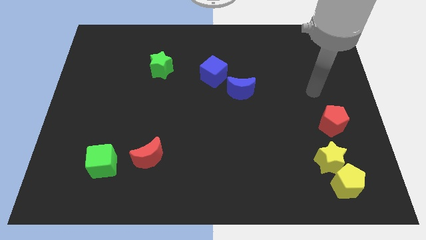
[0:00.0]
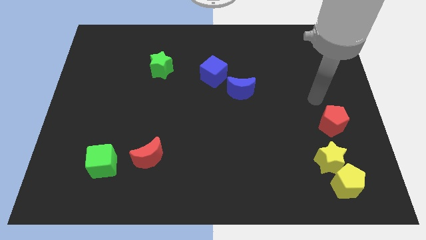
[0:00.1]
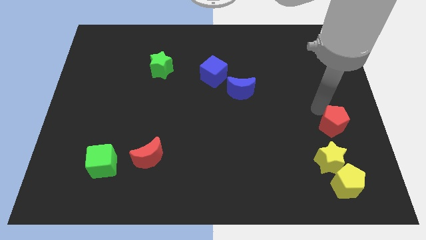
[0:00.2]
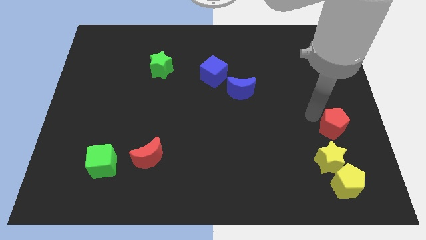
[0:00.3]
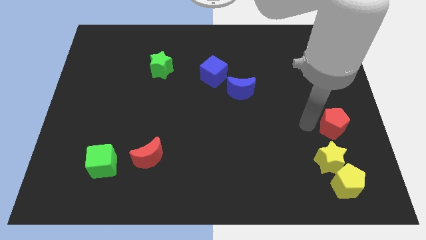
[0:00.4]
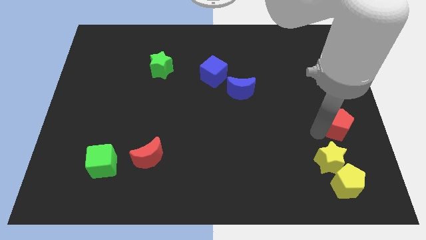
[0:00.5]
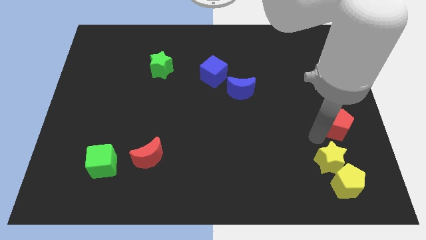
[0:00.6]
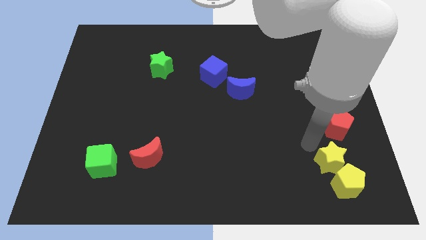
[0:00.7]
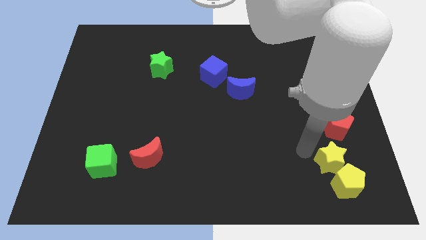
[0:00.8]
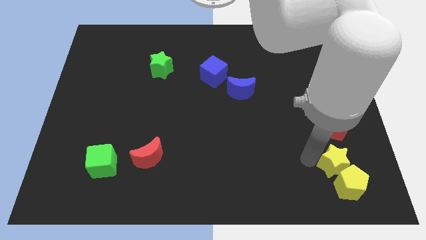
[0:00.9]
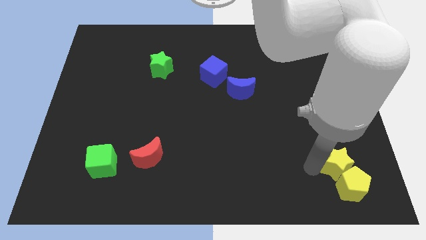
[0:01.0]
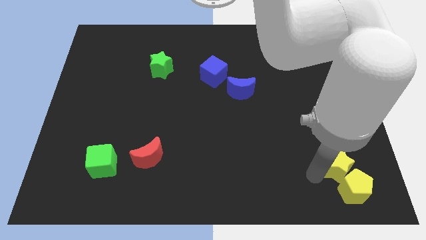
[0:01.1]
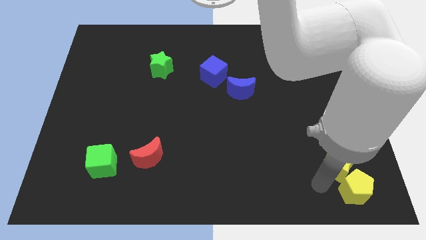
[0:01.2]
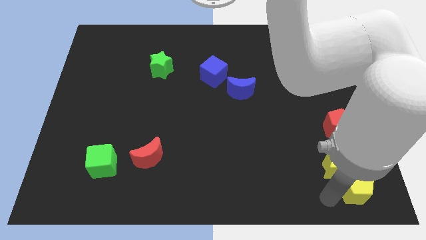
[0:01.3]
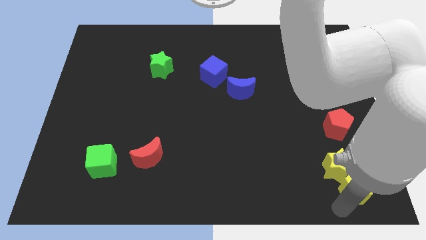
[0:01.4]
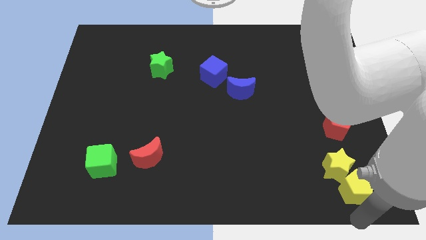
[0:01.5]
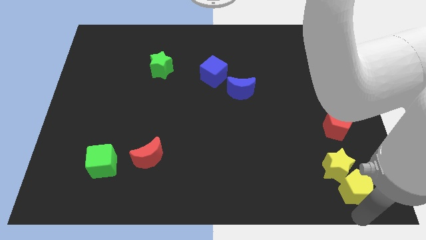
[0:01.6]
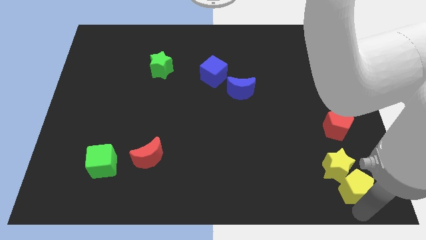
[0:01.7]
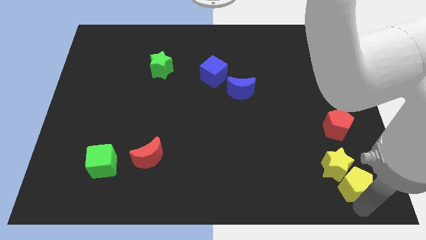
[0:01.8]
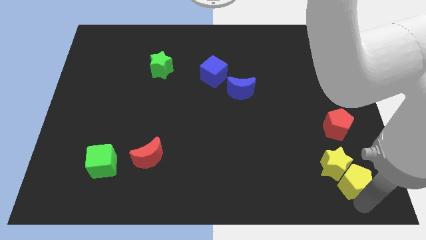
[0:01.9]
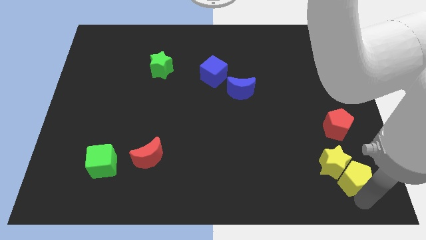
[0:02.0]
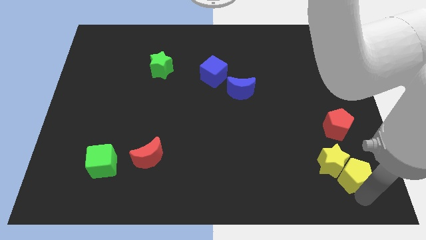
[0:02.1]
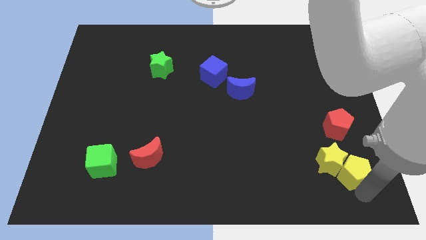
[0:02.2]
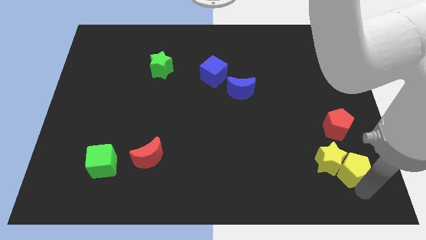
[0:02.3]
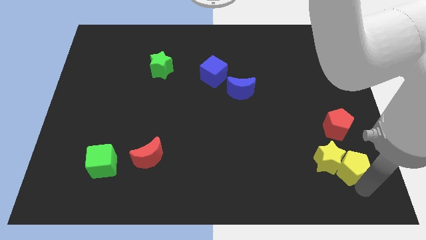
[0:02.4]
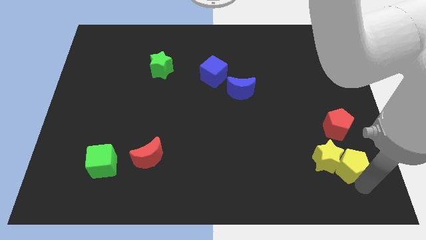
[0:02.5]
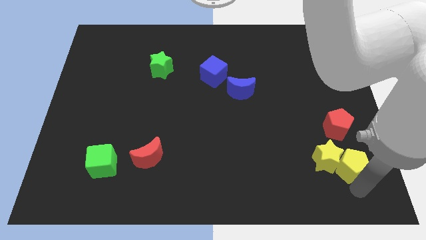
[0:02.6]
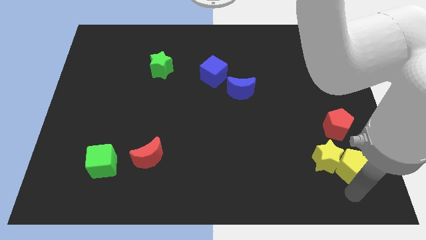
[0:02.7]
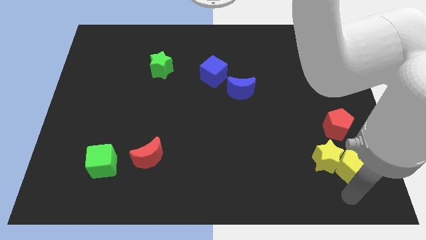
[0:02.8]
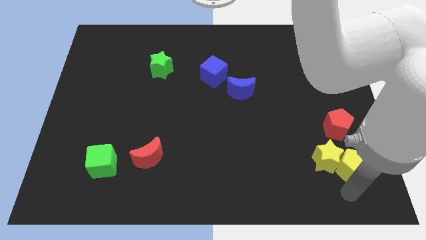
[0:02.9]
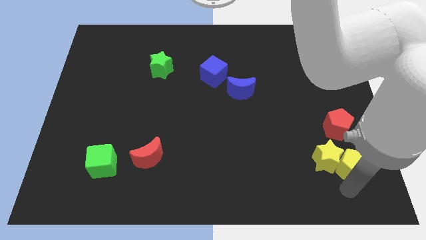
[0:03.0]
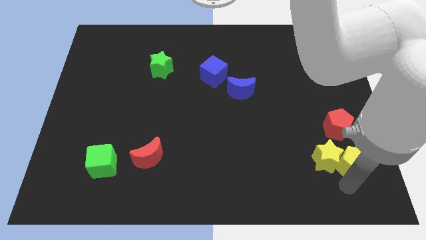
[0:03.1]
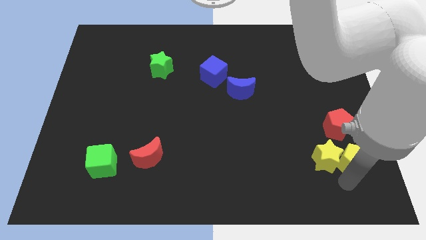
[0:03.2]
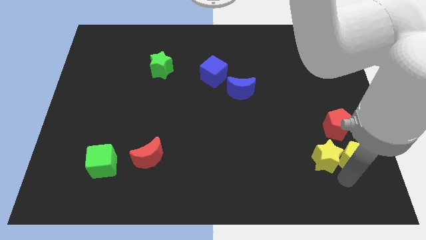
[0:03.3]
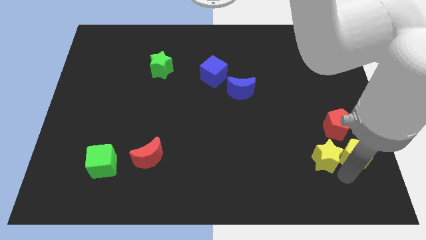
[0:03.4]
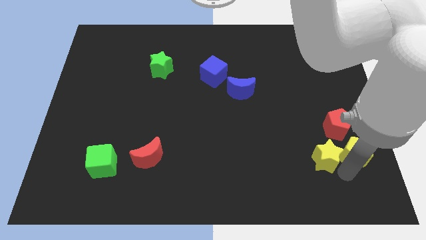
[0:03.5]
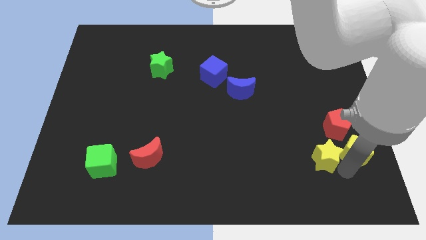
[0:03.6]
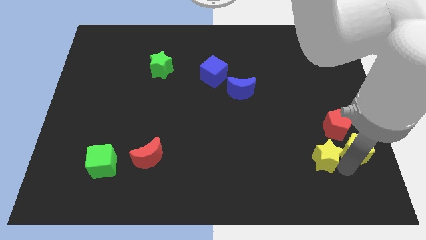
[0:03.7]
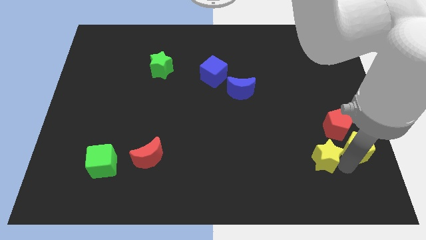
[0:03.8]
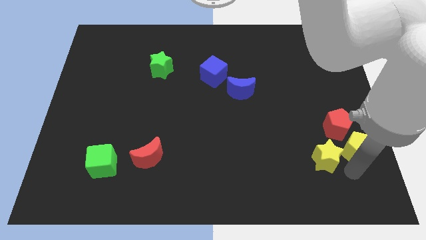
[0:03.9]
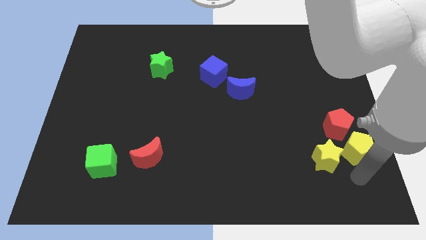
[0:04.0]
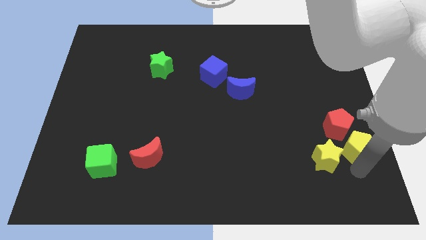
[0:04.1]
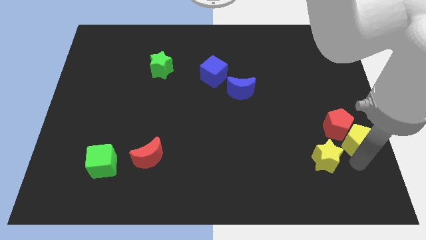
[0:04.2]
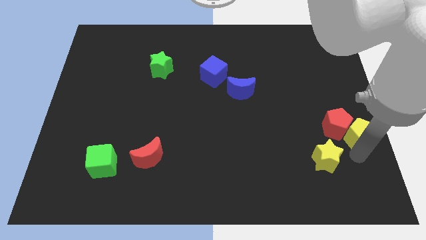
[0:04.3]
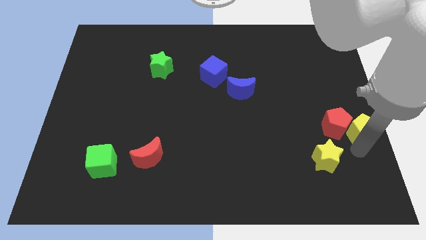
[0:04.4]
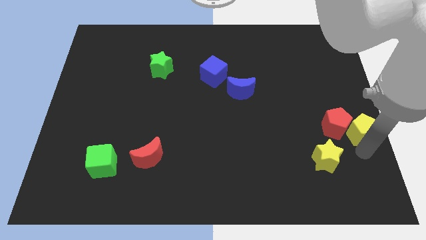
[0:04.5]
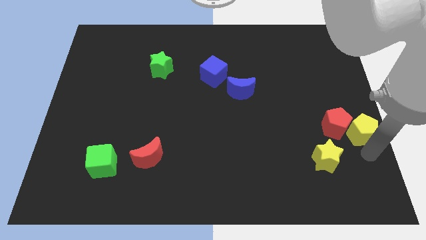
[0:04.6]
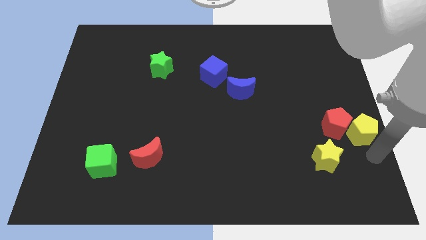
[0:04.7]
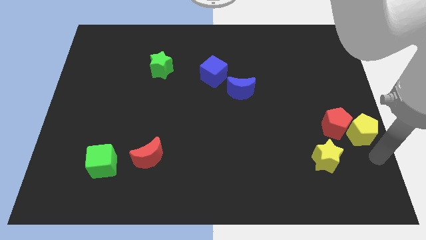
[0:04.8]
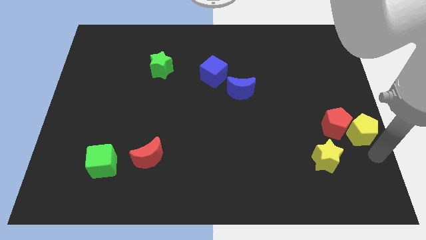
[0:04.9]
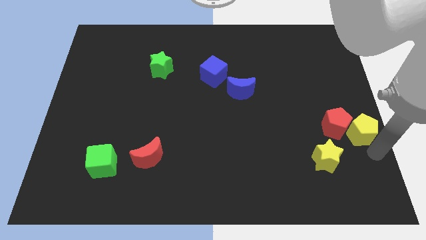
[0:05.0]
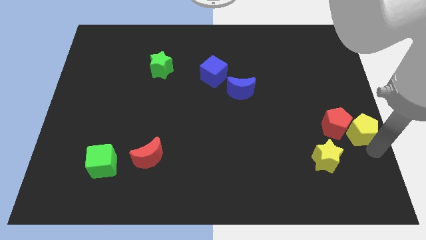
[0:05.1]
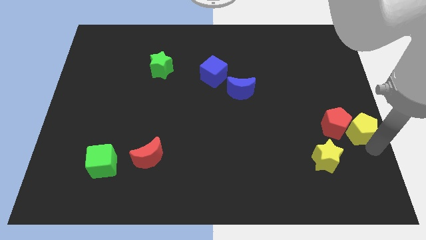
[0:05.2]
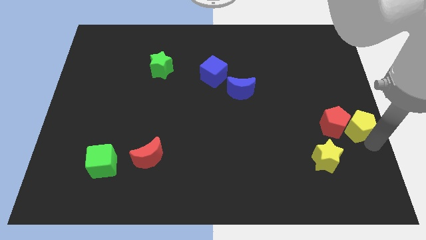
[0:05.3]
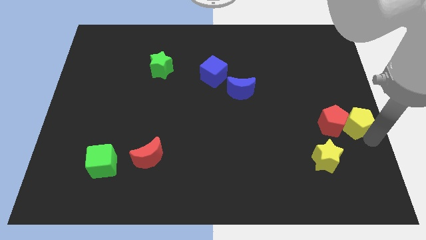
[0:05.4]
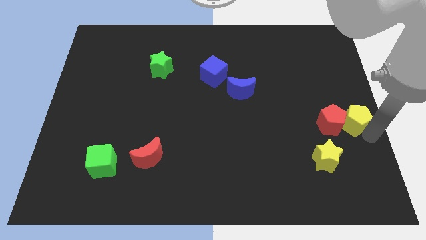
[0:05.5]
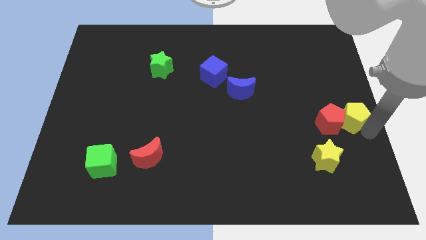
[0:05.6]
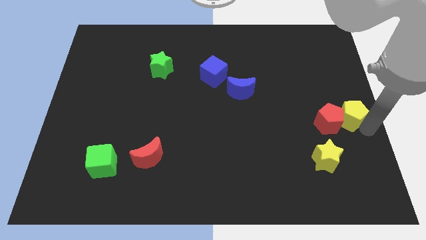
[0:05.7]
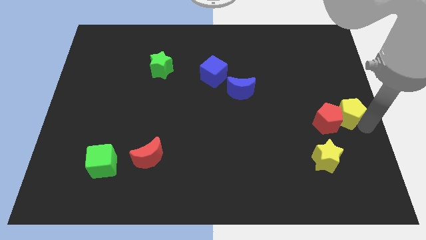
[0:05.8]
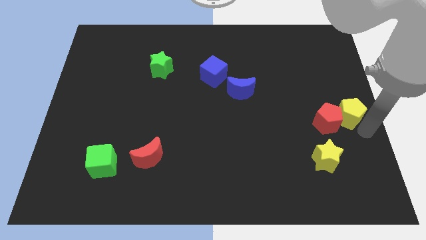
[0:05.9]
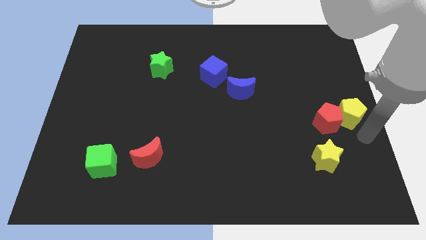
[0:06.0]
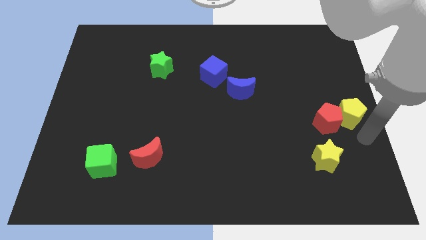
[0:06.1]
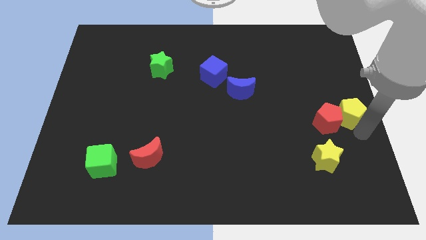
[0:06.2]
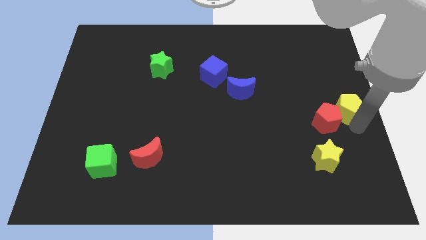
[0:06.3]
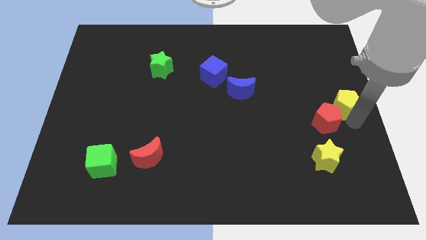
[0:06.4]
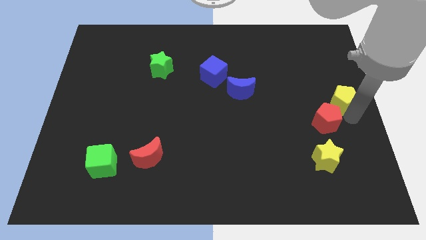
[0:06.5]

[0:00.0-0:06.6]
move the yellow pentagon upwards

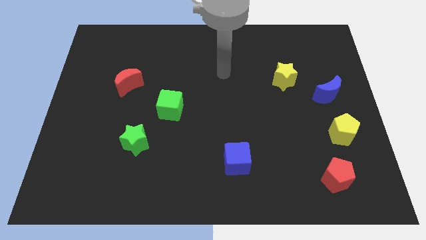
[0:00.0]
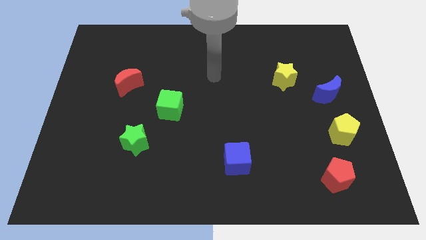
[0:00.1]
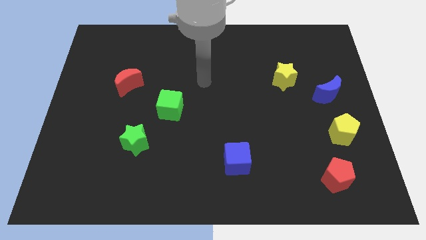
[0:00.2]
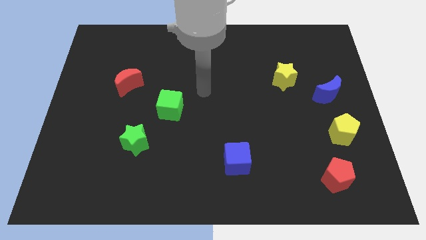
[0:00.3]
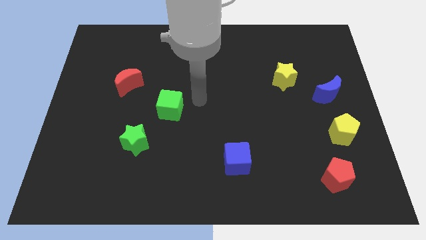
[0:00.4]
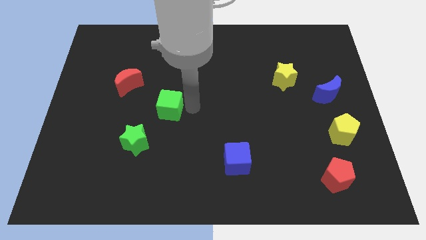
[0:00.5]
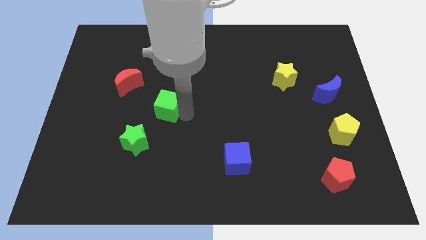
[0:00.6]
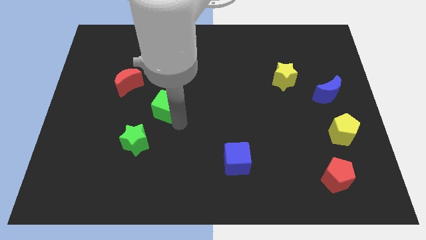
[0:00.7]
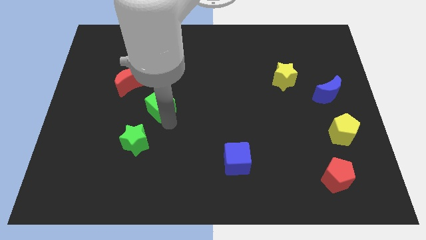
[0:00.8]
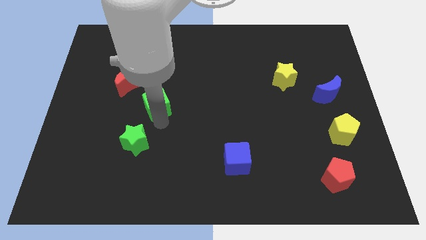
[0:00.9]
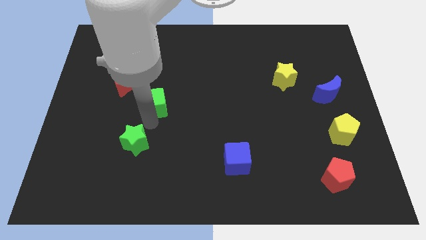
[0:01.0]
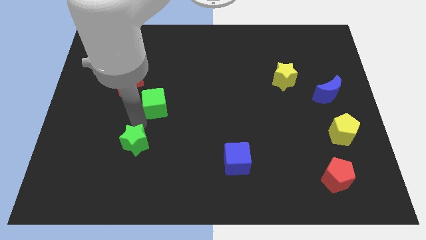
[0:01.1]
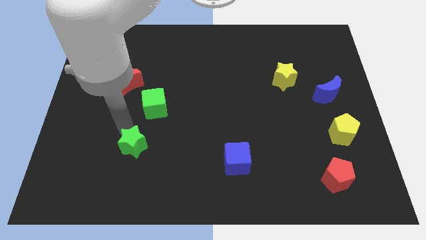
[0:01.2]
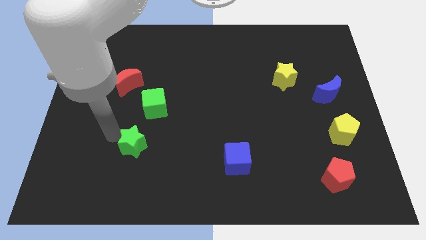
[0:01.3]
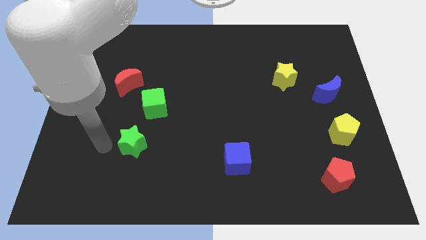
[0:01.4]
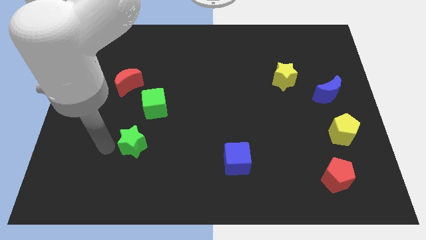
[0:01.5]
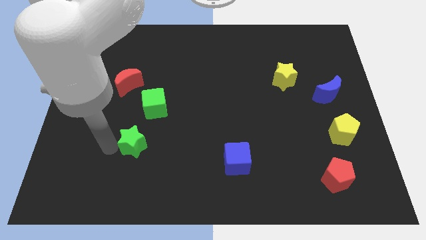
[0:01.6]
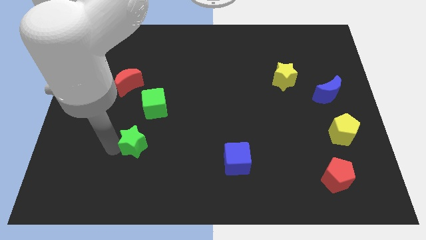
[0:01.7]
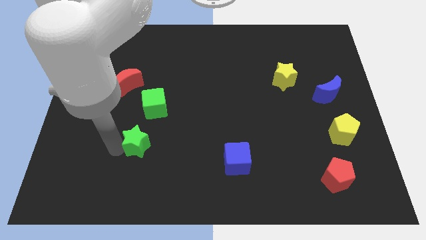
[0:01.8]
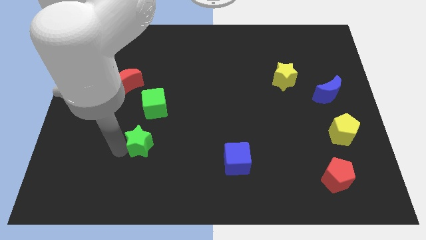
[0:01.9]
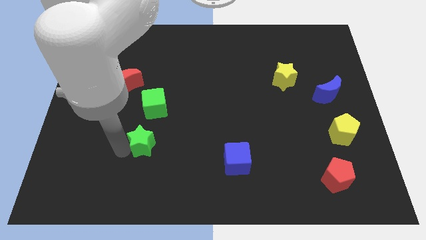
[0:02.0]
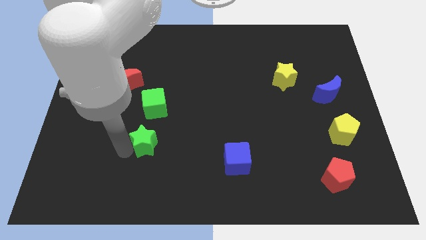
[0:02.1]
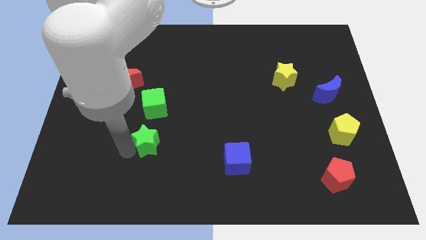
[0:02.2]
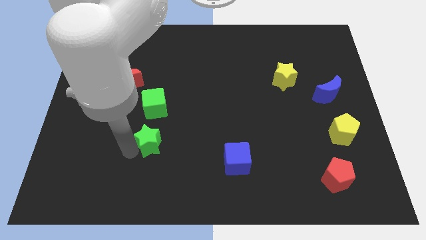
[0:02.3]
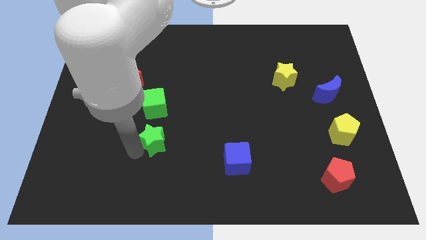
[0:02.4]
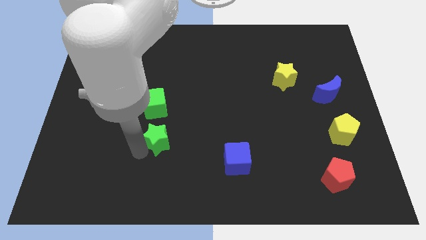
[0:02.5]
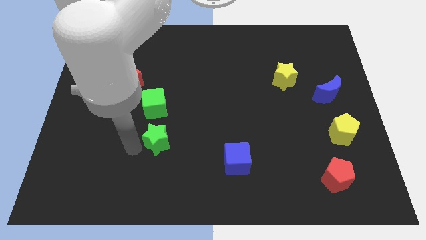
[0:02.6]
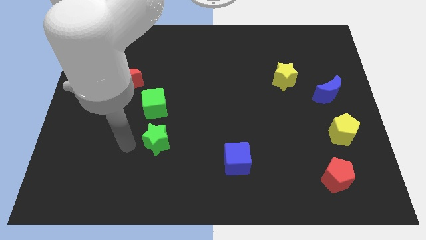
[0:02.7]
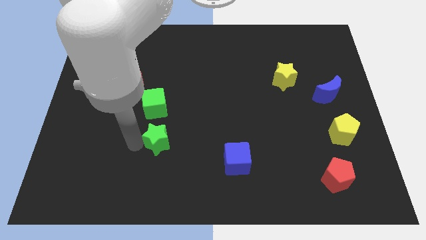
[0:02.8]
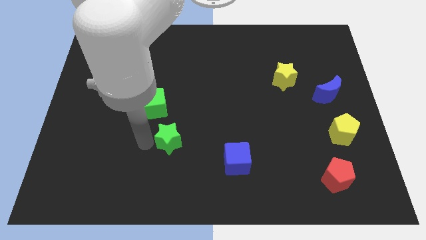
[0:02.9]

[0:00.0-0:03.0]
move the green star right a little bit
